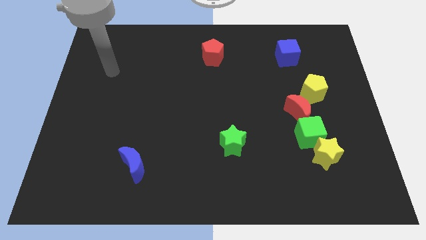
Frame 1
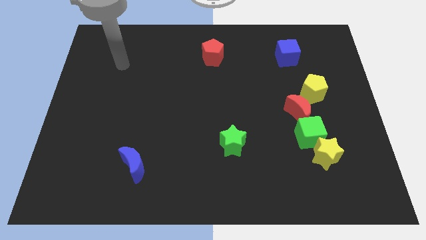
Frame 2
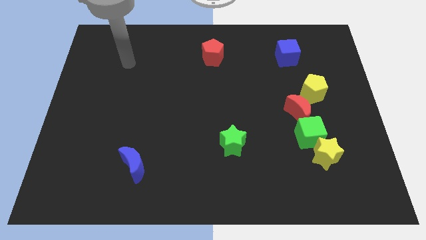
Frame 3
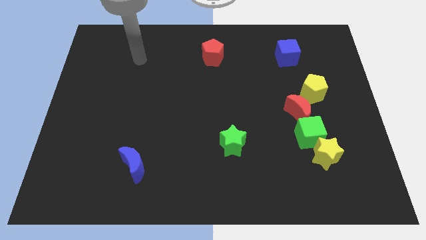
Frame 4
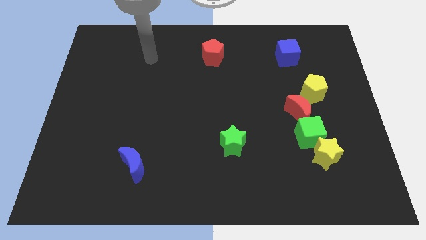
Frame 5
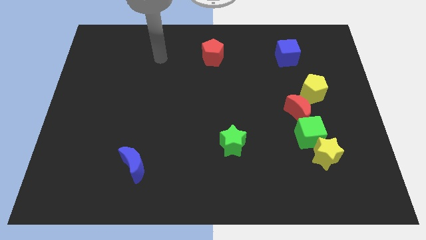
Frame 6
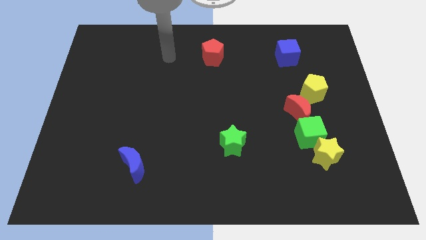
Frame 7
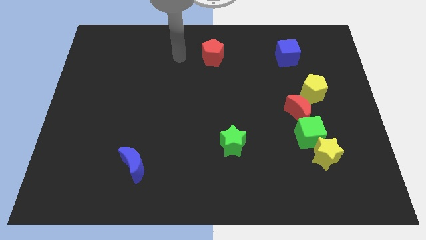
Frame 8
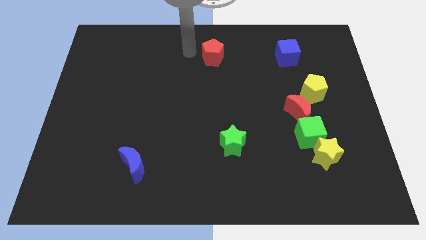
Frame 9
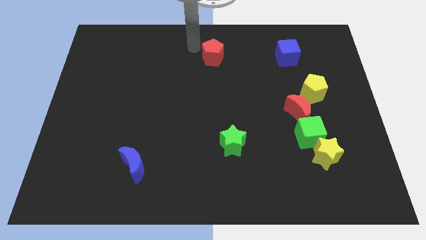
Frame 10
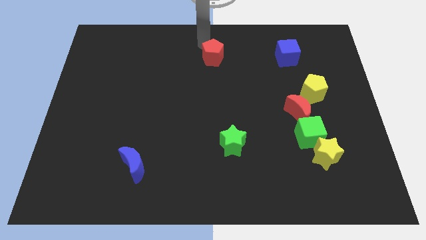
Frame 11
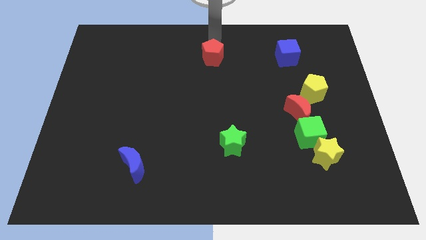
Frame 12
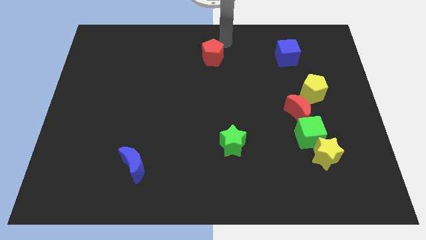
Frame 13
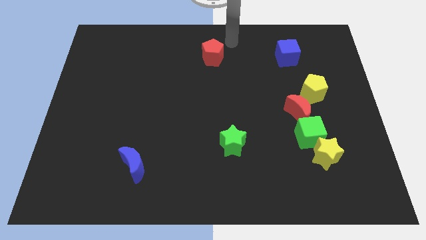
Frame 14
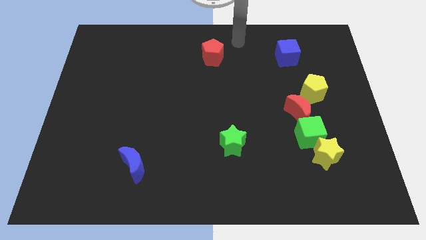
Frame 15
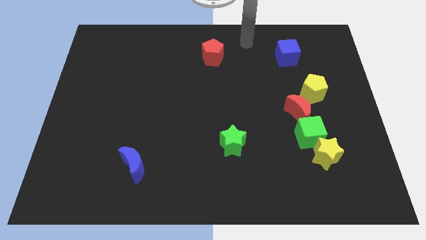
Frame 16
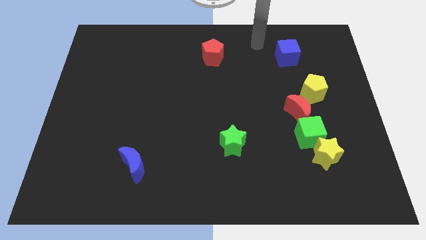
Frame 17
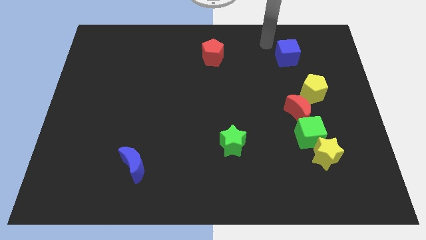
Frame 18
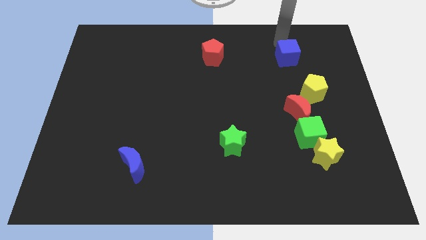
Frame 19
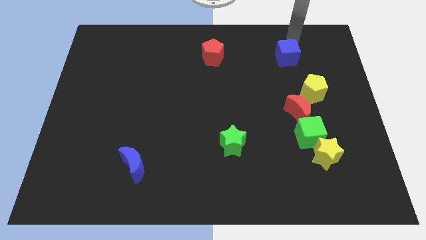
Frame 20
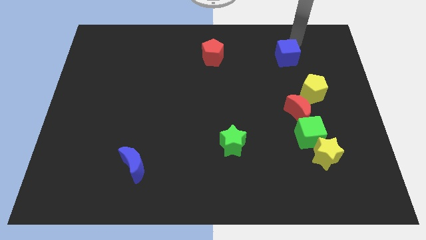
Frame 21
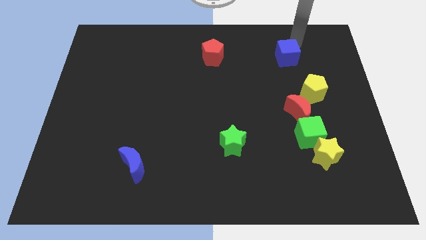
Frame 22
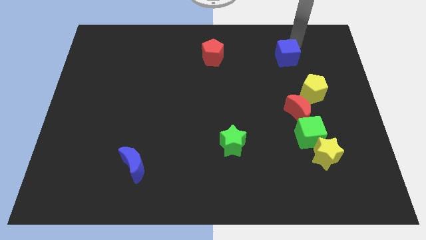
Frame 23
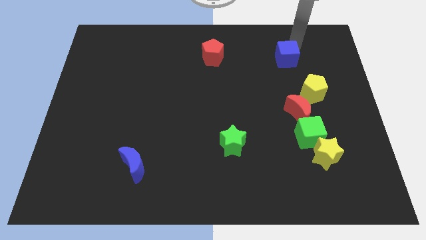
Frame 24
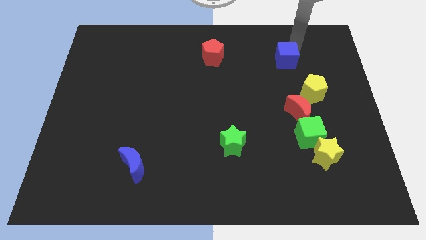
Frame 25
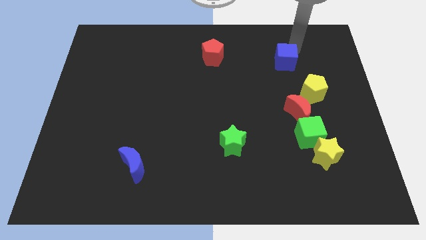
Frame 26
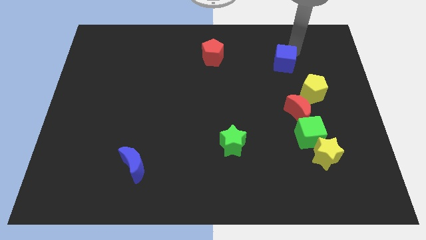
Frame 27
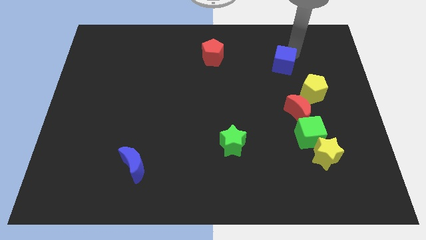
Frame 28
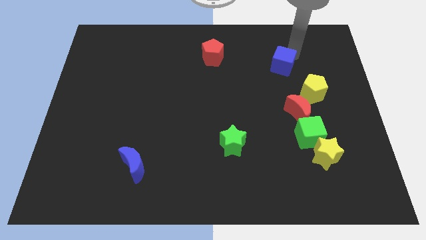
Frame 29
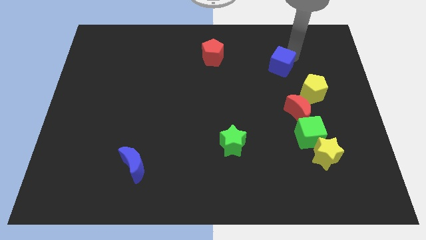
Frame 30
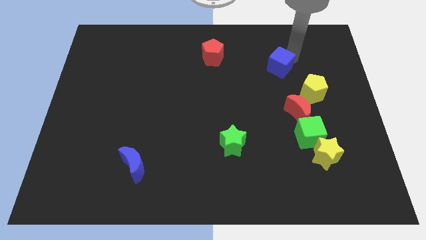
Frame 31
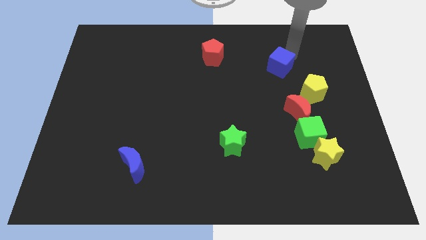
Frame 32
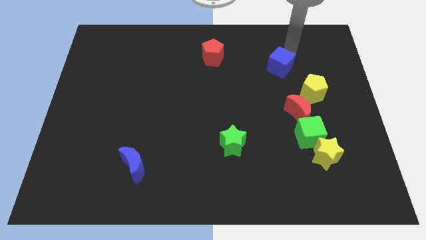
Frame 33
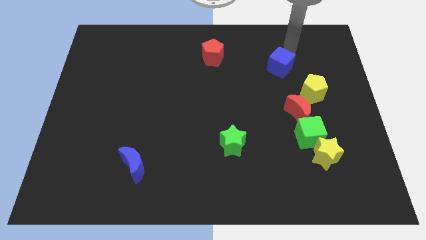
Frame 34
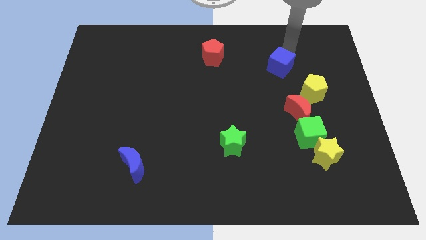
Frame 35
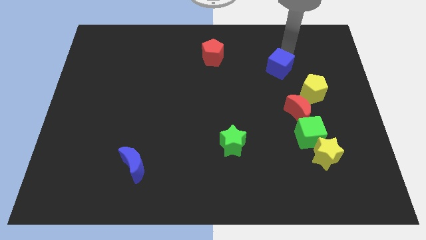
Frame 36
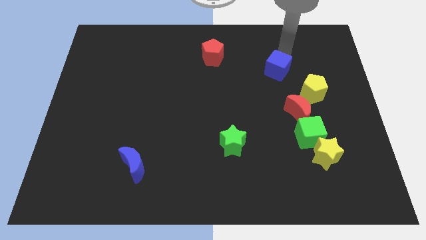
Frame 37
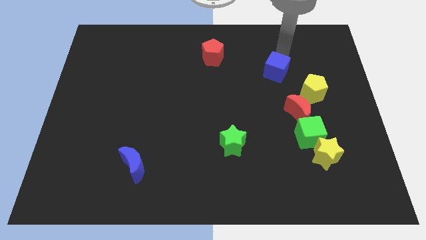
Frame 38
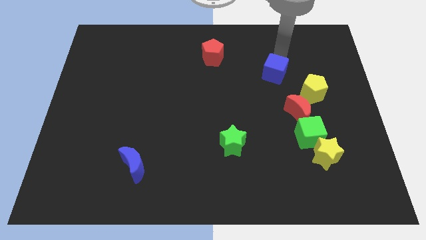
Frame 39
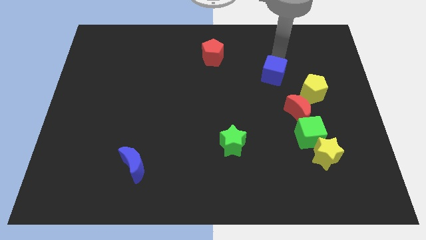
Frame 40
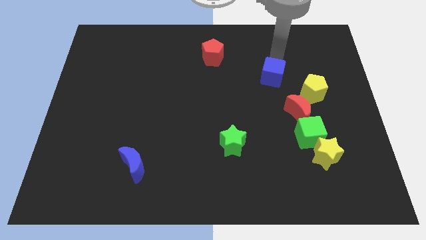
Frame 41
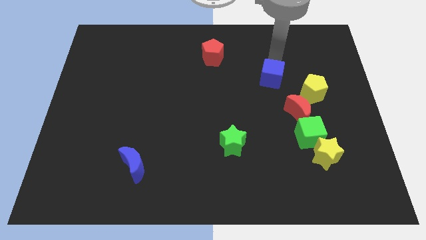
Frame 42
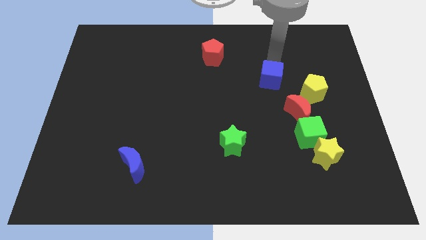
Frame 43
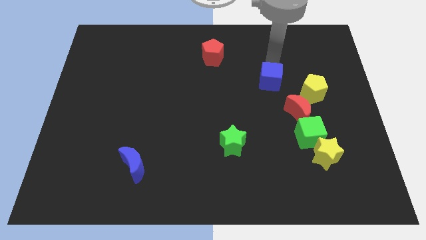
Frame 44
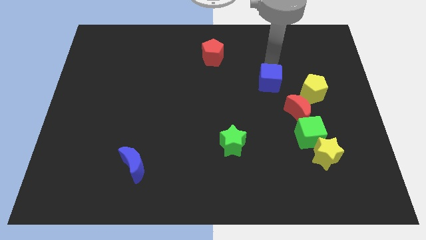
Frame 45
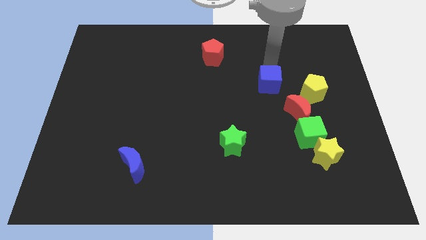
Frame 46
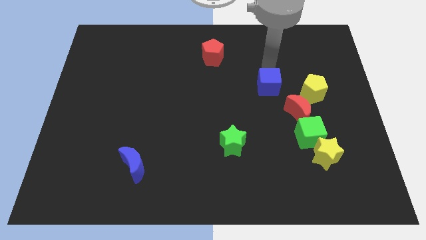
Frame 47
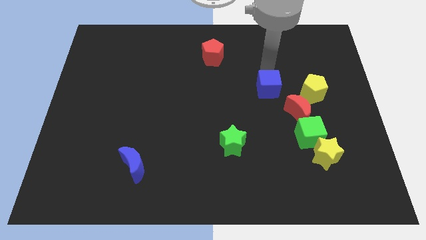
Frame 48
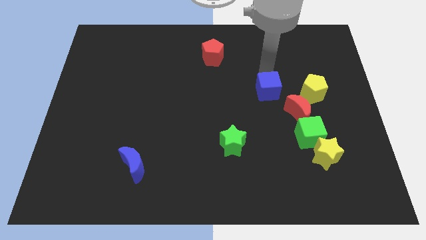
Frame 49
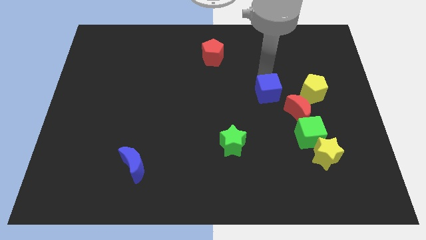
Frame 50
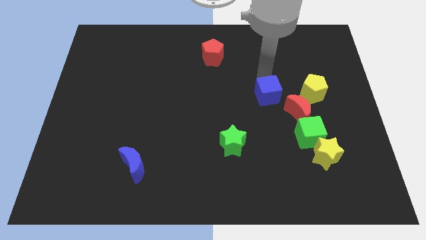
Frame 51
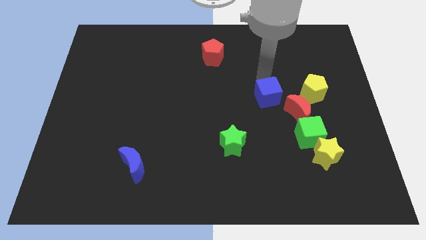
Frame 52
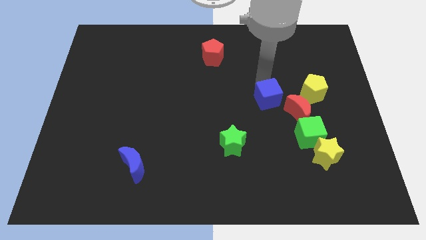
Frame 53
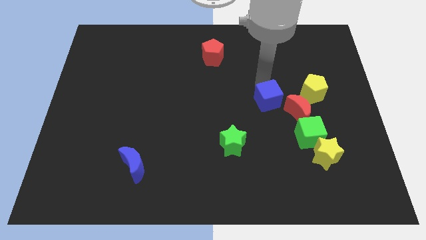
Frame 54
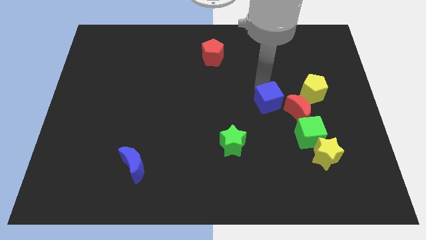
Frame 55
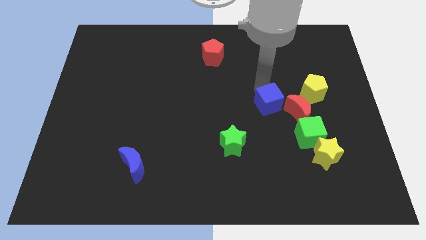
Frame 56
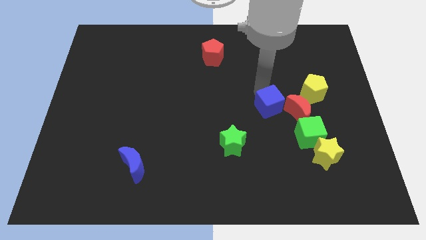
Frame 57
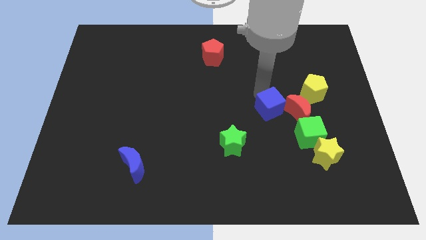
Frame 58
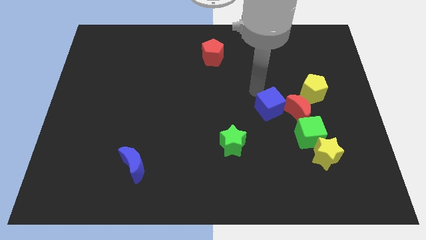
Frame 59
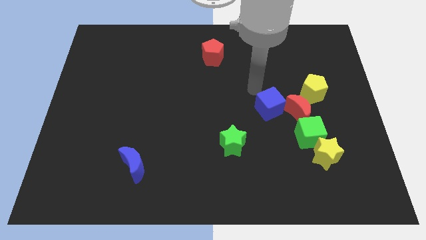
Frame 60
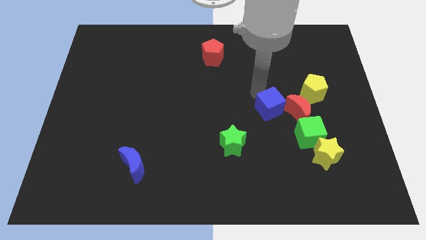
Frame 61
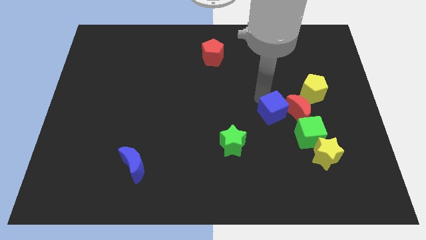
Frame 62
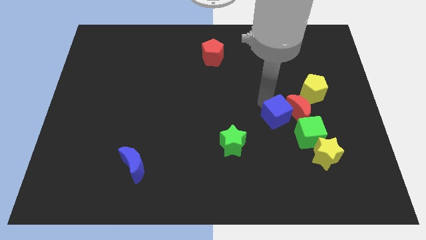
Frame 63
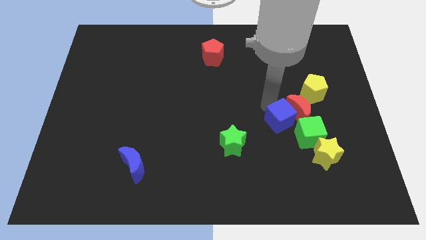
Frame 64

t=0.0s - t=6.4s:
move the blue cube down

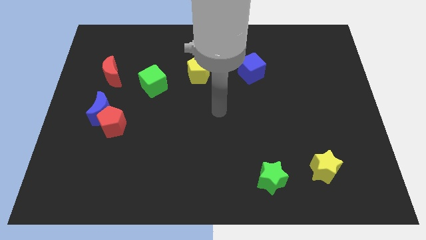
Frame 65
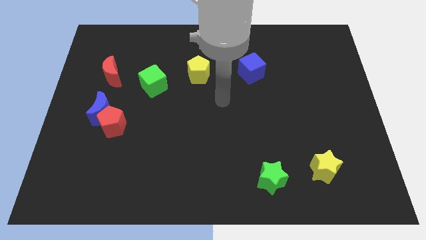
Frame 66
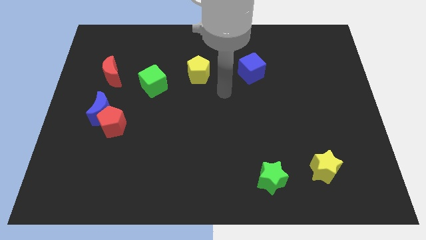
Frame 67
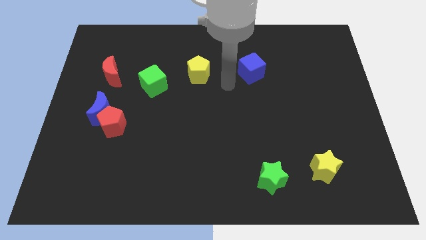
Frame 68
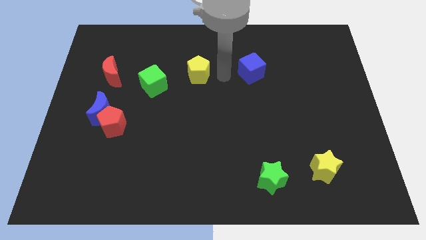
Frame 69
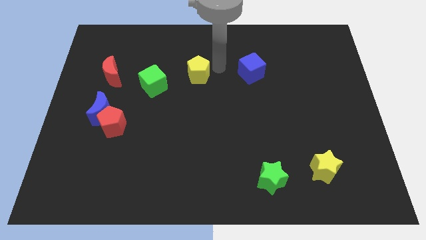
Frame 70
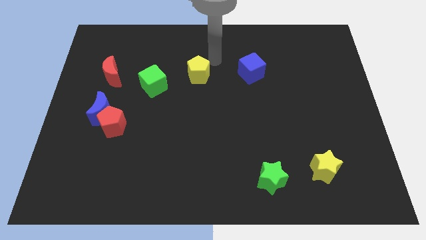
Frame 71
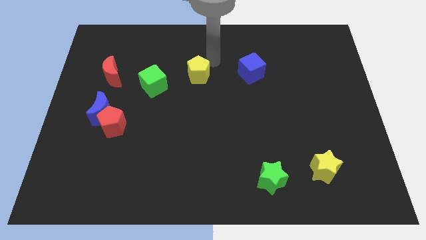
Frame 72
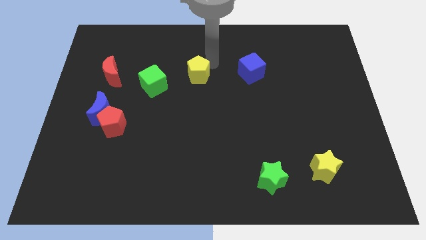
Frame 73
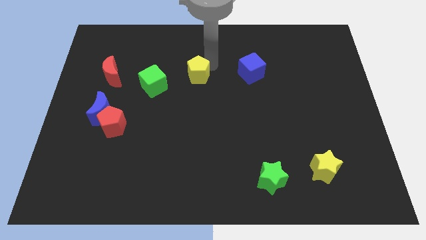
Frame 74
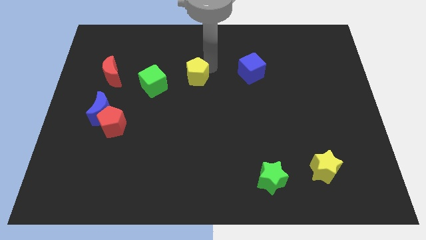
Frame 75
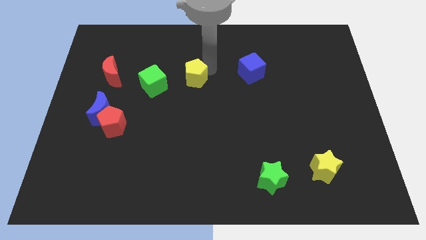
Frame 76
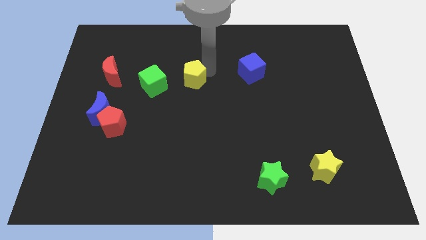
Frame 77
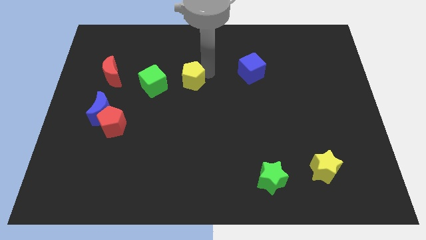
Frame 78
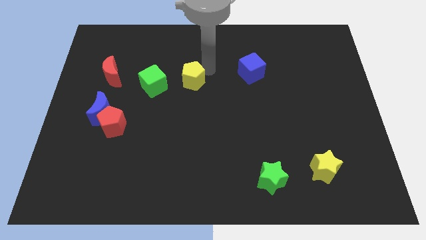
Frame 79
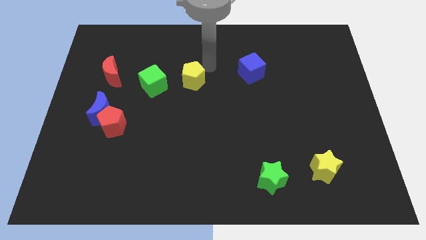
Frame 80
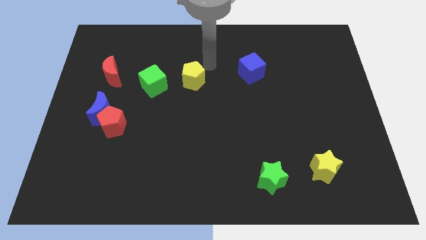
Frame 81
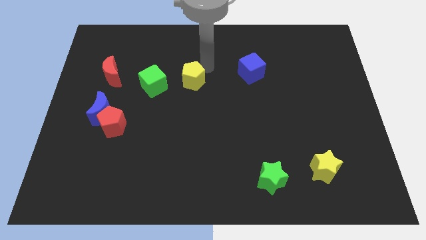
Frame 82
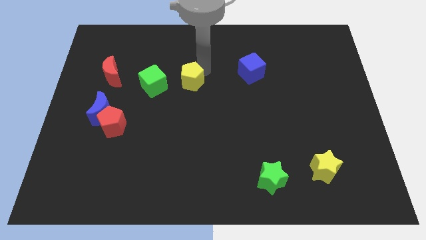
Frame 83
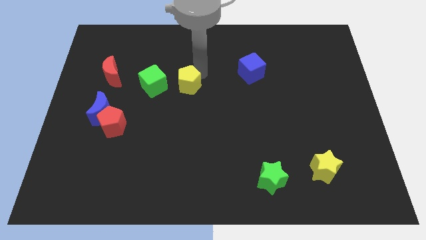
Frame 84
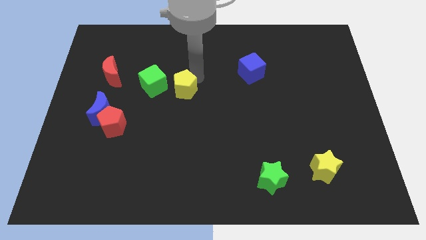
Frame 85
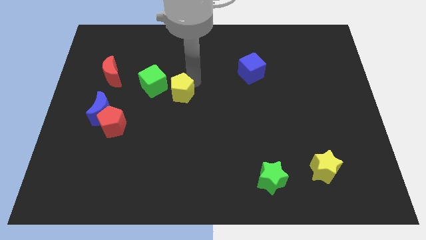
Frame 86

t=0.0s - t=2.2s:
slide the yellow pentagon a bit downwards and left
